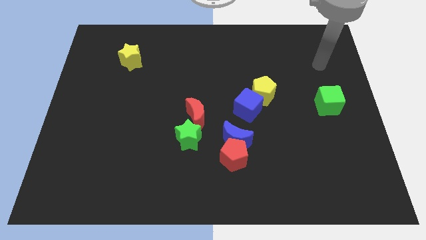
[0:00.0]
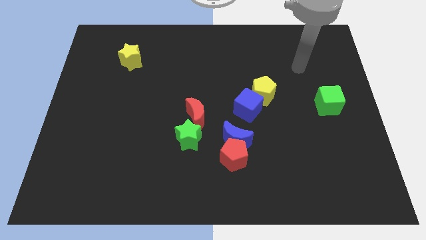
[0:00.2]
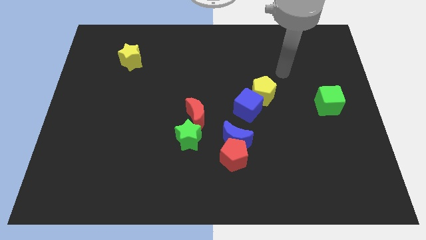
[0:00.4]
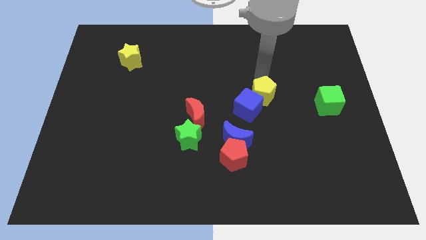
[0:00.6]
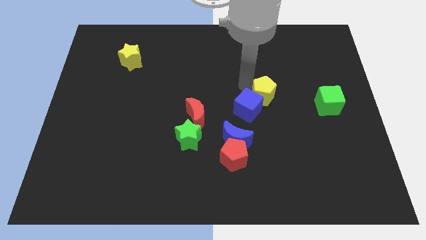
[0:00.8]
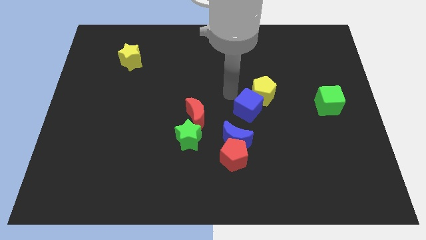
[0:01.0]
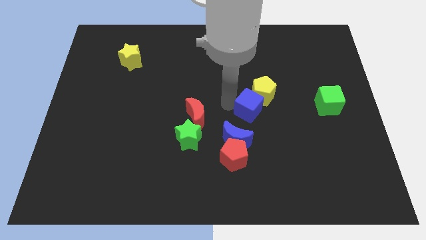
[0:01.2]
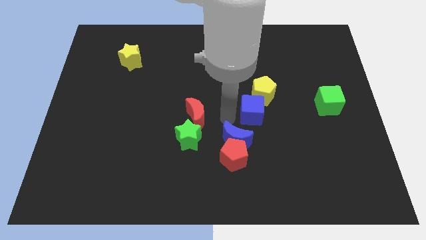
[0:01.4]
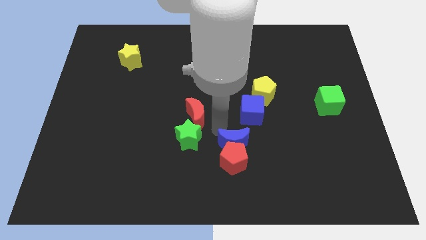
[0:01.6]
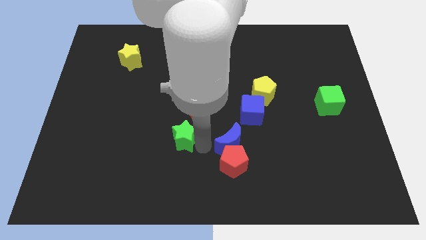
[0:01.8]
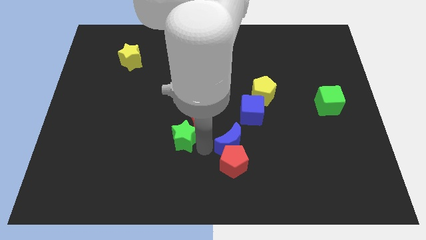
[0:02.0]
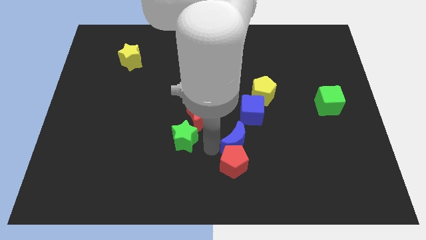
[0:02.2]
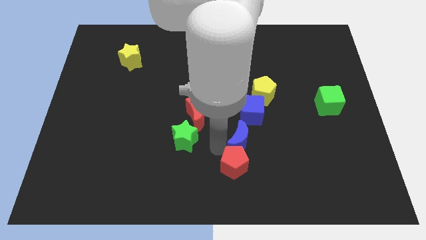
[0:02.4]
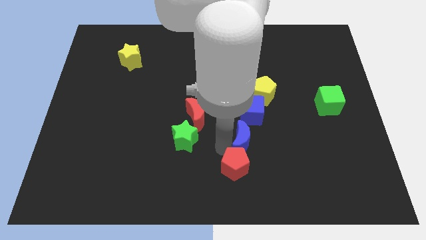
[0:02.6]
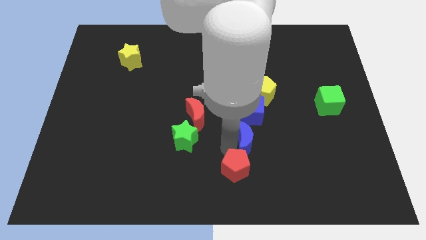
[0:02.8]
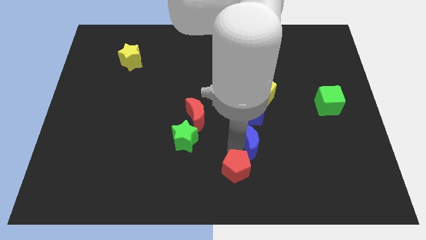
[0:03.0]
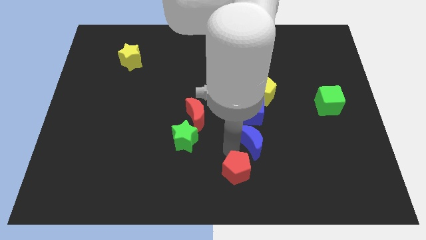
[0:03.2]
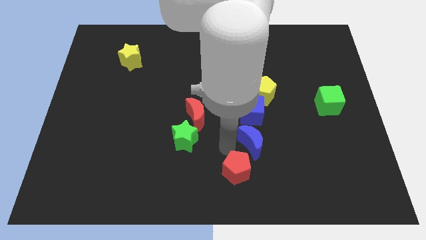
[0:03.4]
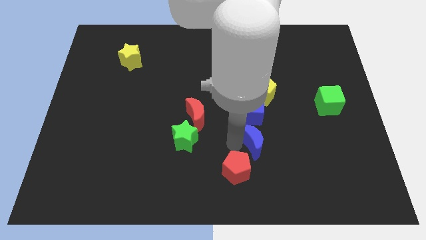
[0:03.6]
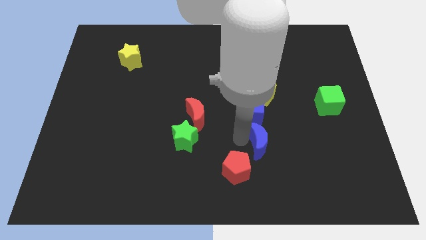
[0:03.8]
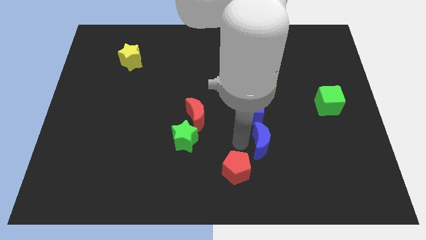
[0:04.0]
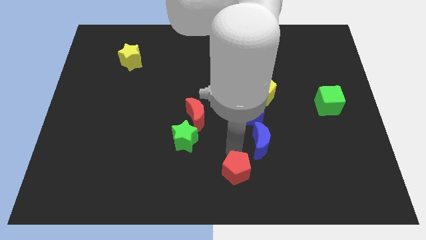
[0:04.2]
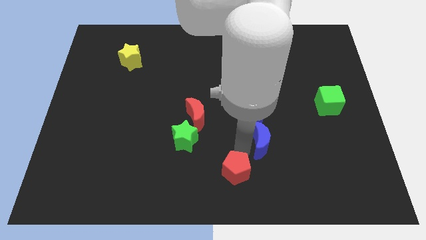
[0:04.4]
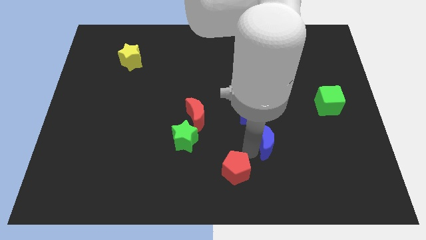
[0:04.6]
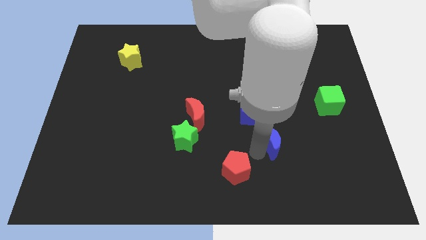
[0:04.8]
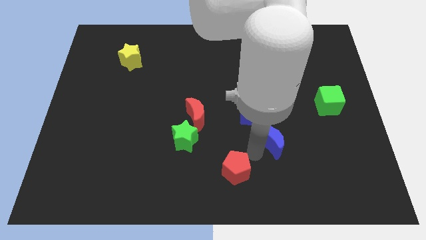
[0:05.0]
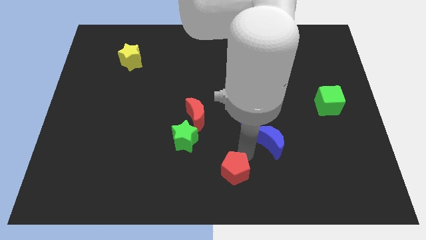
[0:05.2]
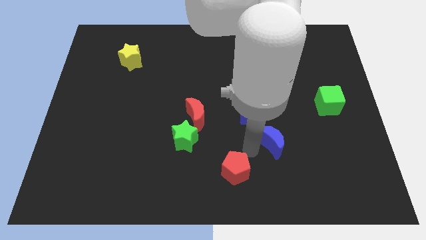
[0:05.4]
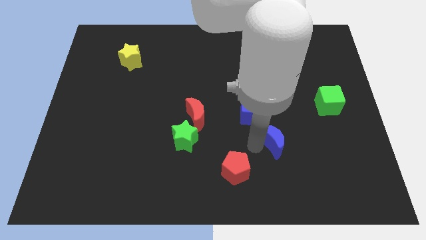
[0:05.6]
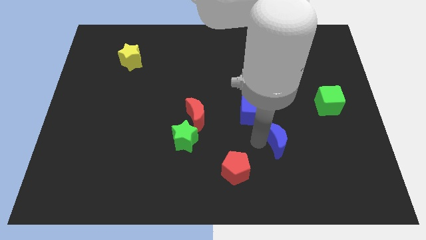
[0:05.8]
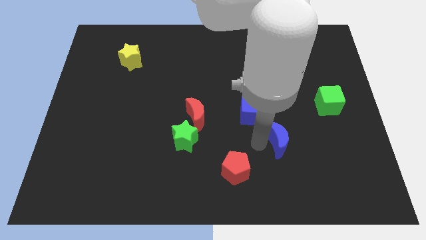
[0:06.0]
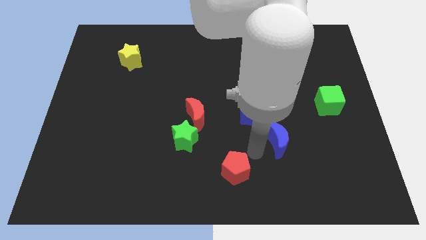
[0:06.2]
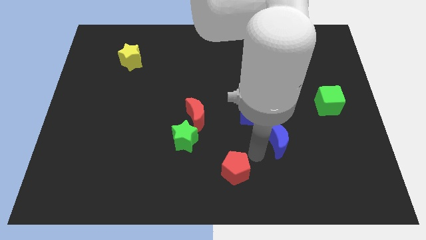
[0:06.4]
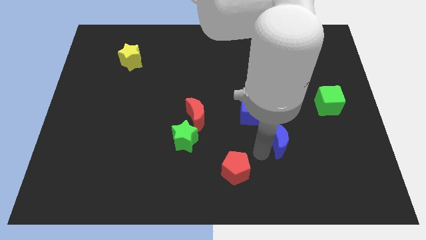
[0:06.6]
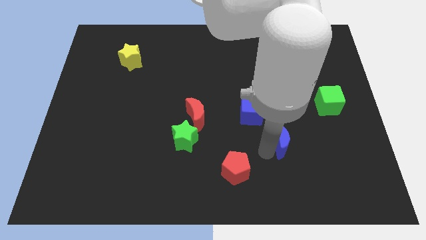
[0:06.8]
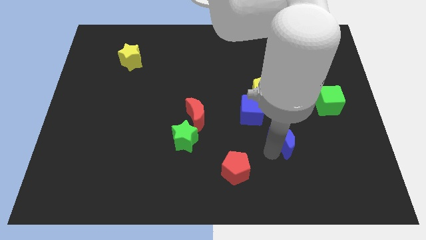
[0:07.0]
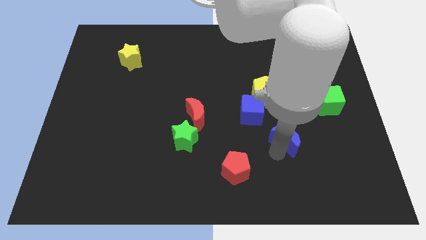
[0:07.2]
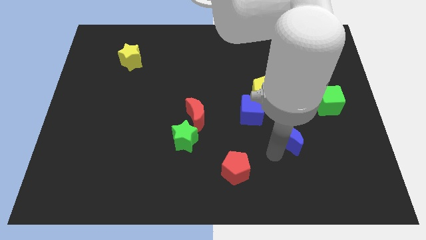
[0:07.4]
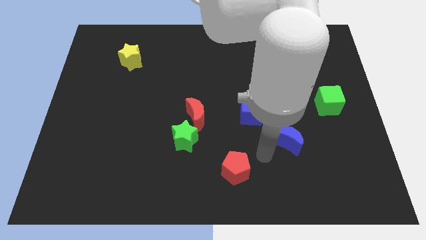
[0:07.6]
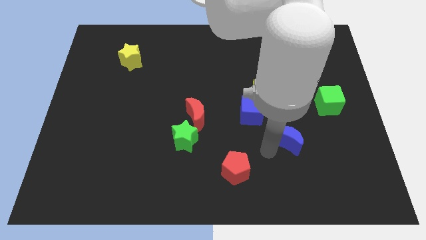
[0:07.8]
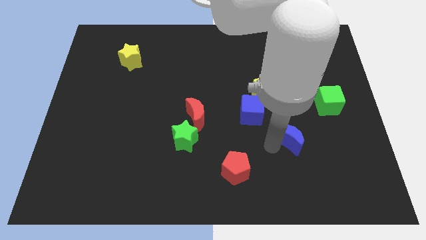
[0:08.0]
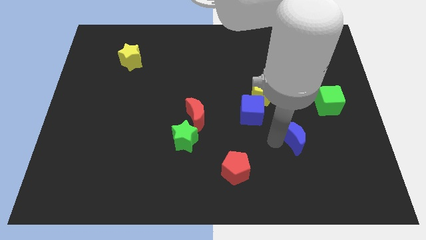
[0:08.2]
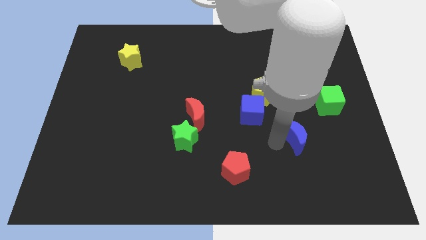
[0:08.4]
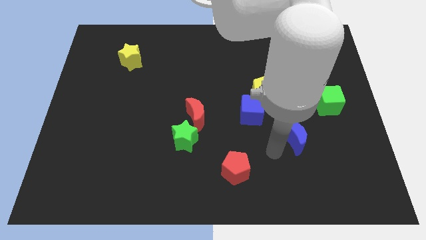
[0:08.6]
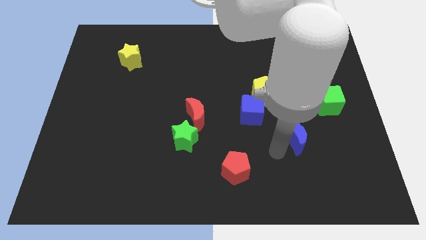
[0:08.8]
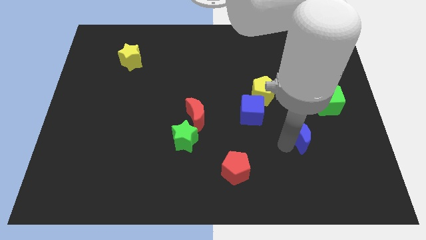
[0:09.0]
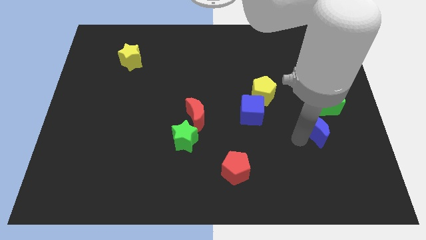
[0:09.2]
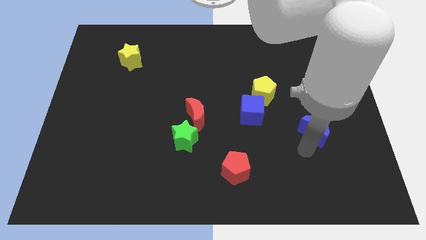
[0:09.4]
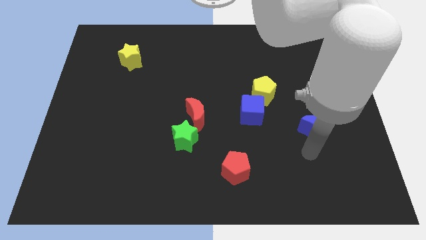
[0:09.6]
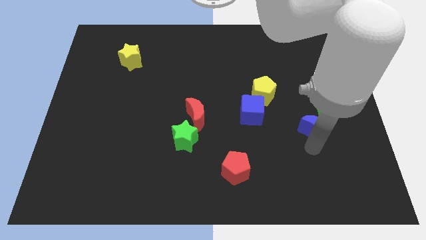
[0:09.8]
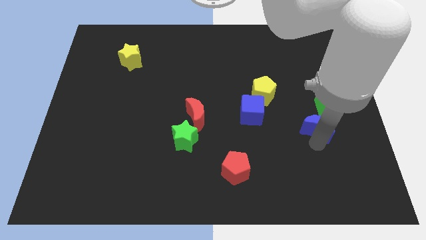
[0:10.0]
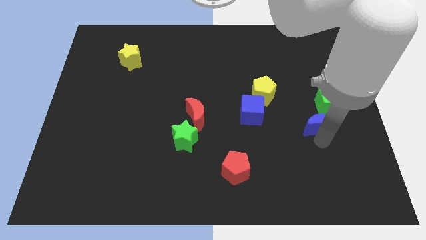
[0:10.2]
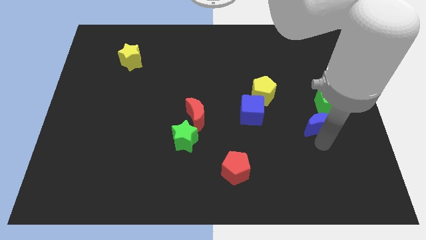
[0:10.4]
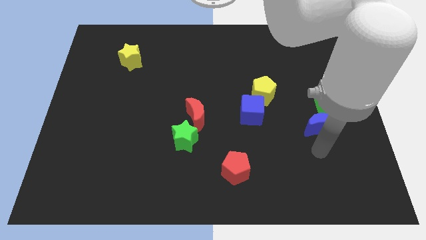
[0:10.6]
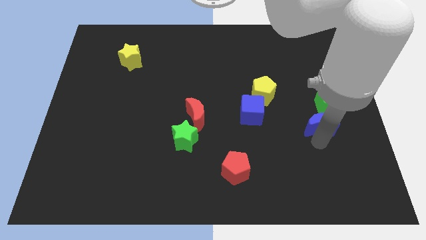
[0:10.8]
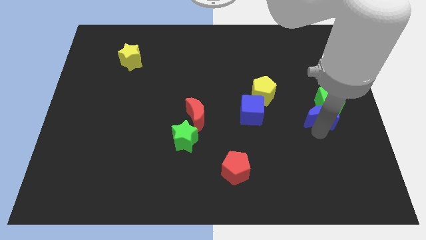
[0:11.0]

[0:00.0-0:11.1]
slide the blue moon to the green cube

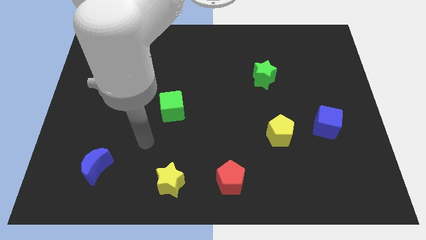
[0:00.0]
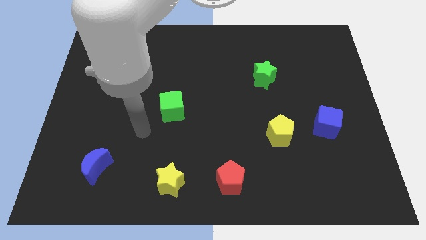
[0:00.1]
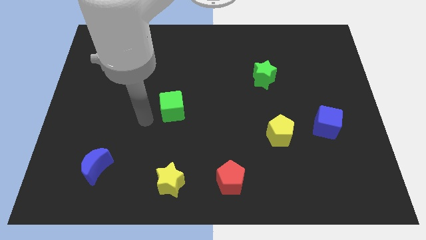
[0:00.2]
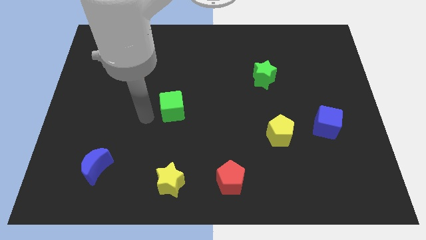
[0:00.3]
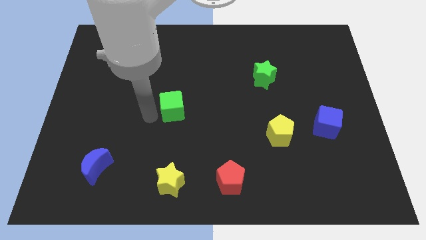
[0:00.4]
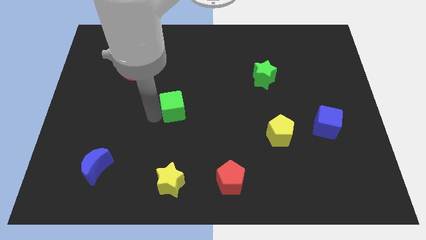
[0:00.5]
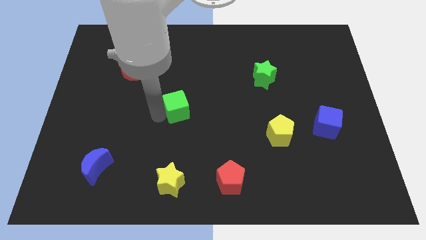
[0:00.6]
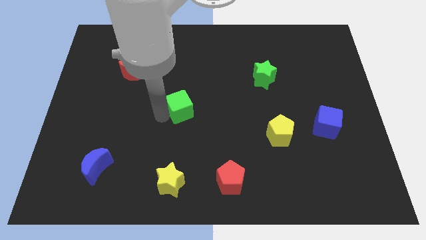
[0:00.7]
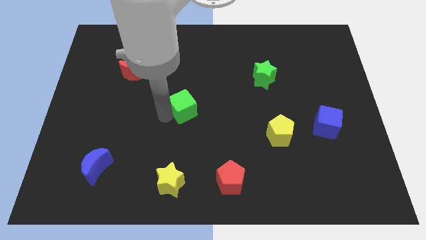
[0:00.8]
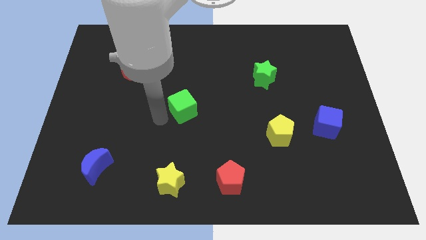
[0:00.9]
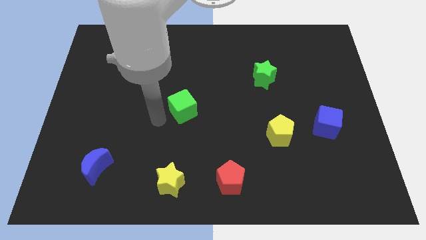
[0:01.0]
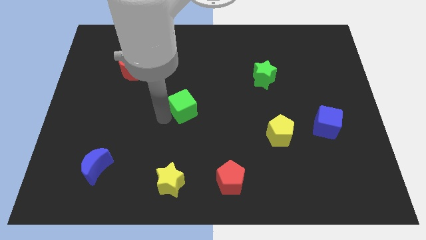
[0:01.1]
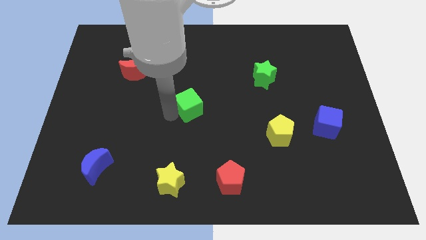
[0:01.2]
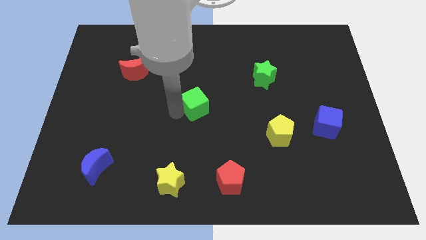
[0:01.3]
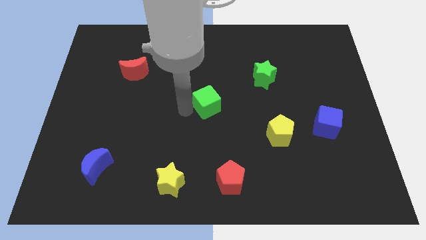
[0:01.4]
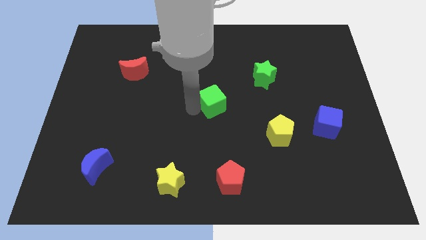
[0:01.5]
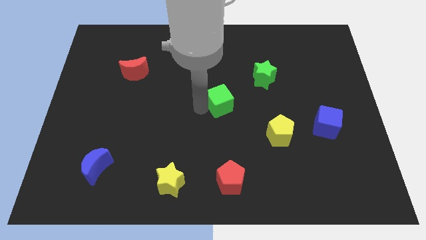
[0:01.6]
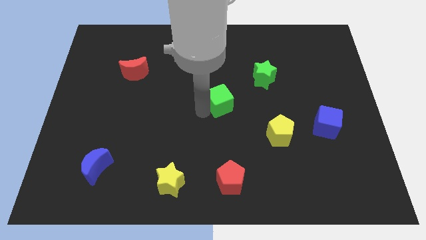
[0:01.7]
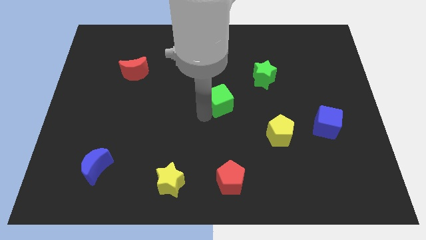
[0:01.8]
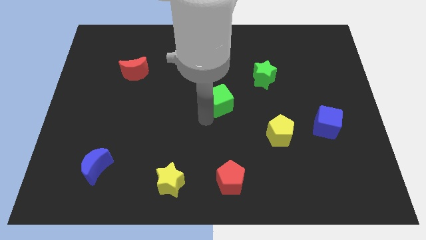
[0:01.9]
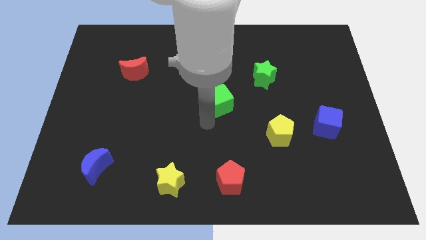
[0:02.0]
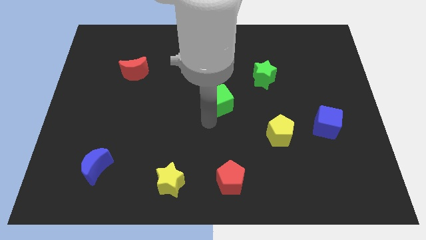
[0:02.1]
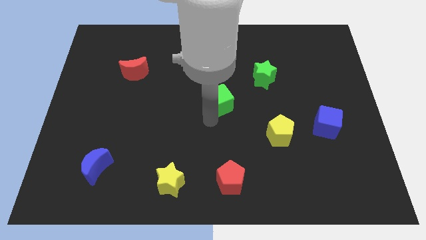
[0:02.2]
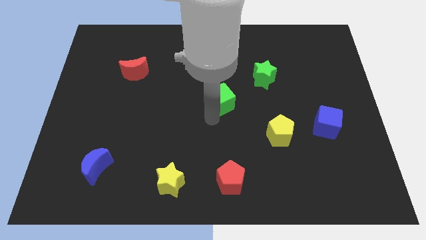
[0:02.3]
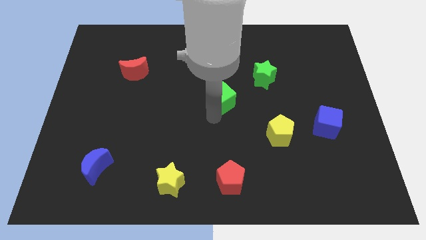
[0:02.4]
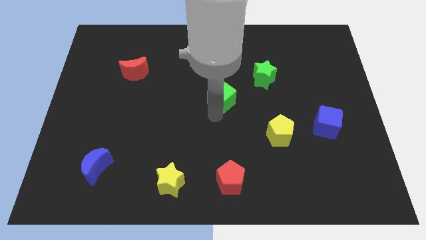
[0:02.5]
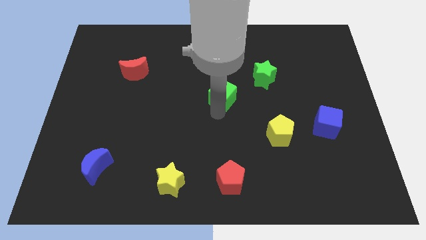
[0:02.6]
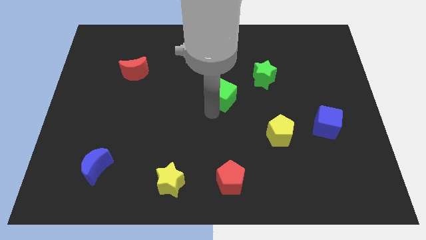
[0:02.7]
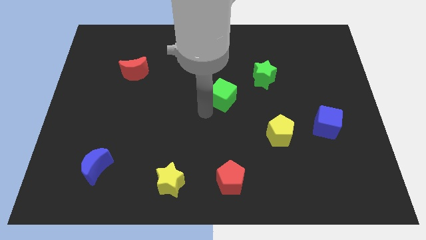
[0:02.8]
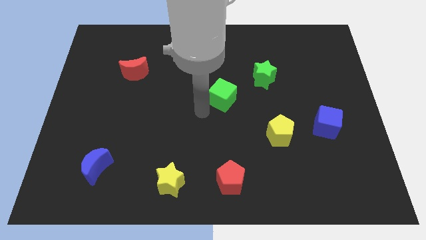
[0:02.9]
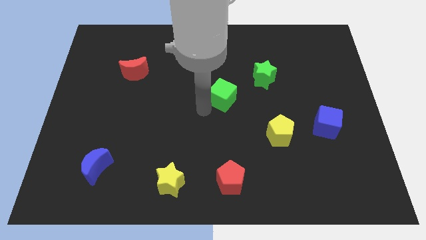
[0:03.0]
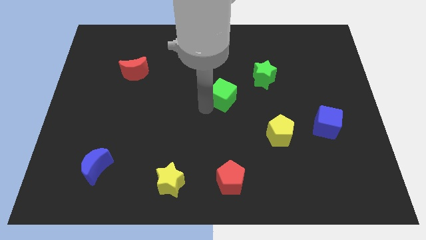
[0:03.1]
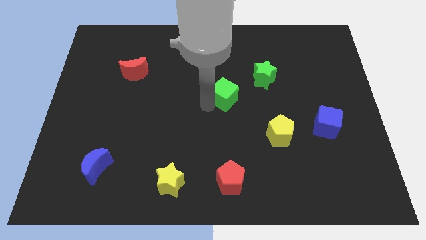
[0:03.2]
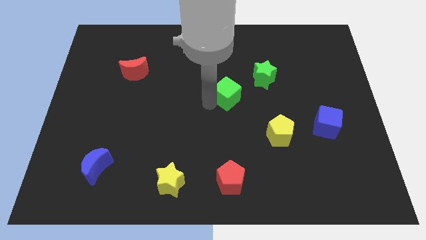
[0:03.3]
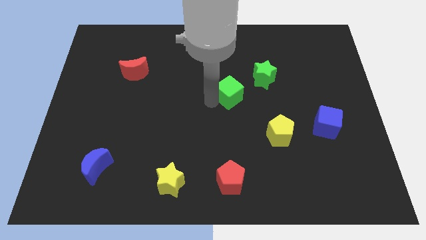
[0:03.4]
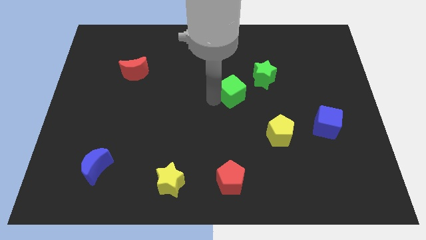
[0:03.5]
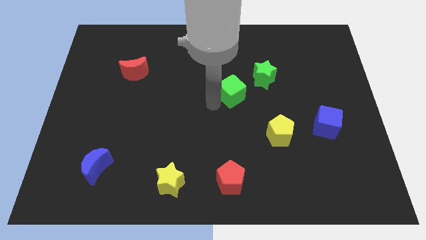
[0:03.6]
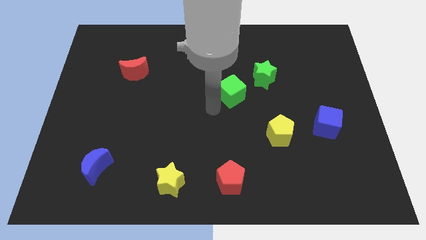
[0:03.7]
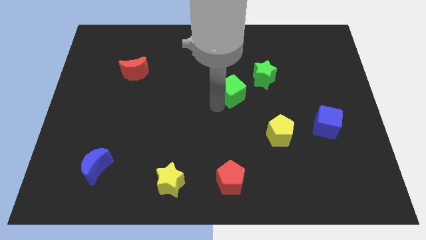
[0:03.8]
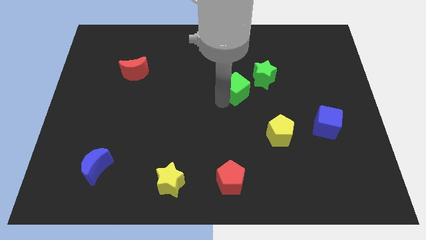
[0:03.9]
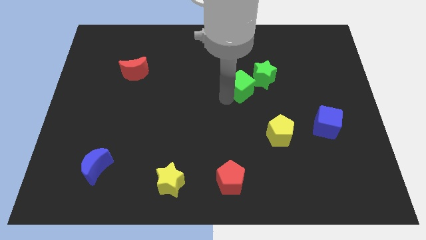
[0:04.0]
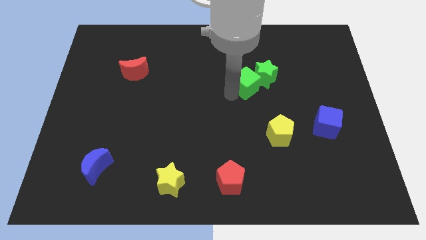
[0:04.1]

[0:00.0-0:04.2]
put the green cube close to the green star
